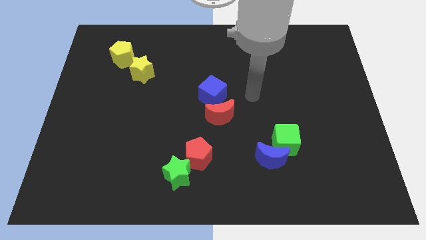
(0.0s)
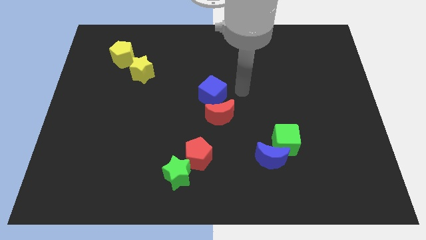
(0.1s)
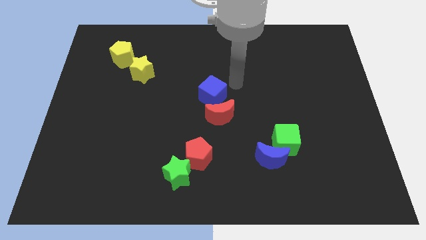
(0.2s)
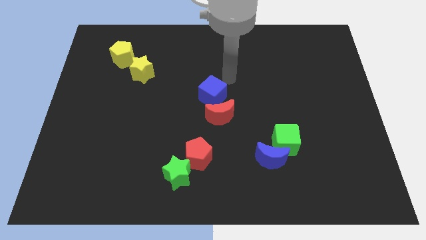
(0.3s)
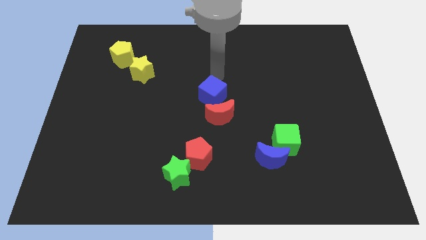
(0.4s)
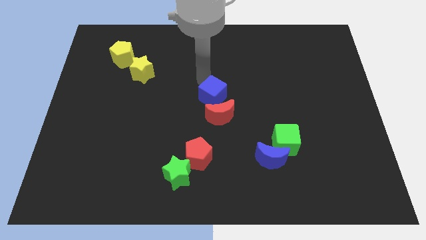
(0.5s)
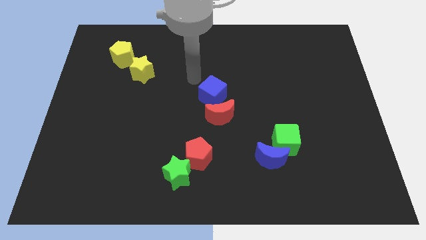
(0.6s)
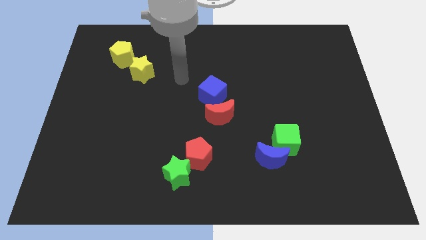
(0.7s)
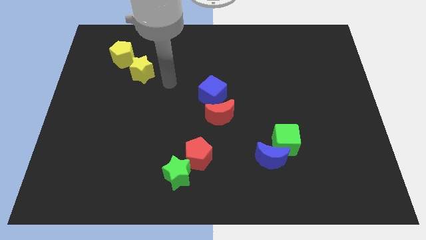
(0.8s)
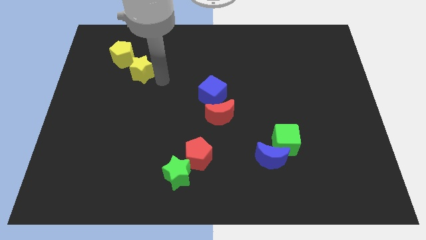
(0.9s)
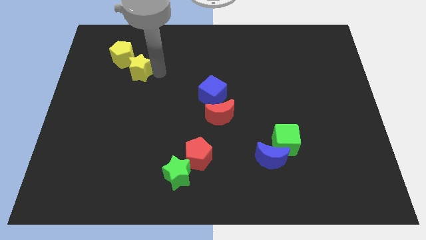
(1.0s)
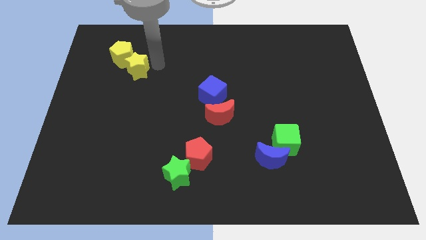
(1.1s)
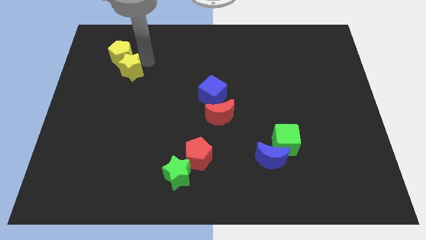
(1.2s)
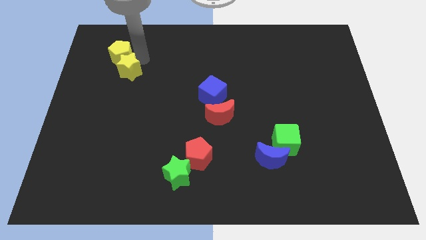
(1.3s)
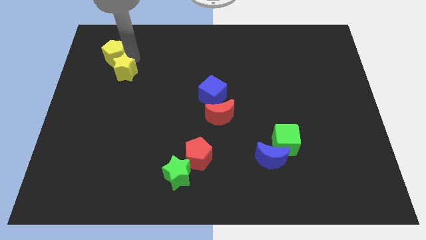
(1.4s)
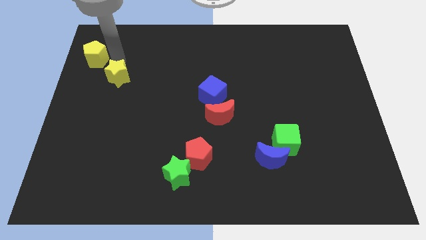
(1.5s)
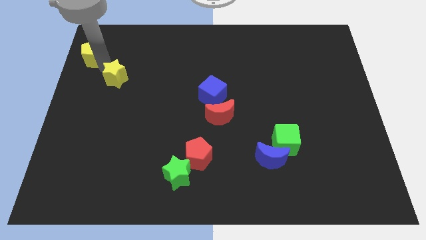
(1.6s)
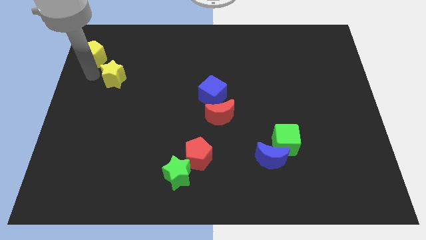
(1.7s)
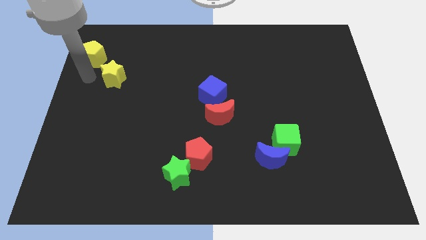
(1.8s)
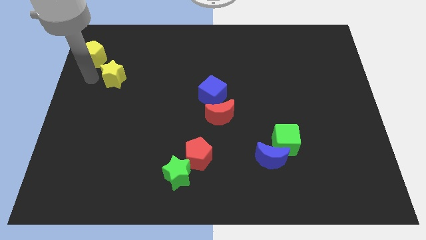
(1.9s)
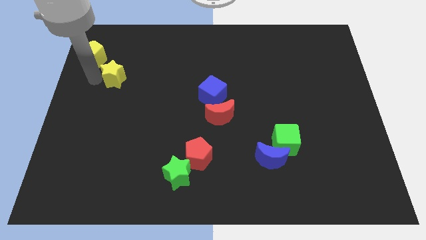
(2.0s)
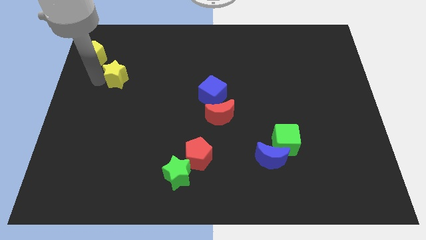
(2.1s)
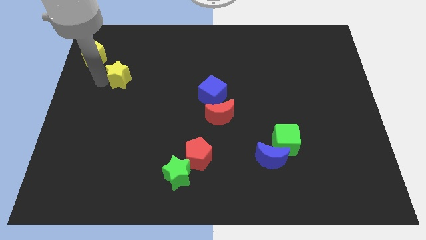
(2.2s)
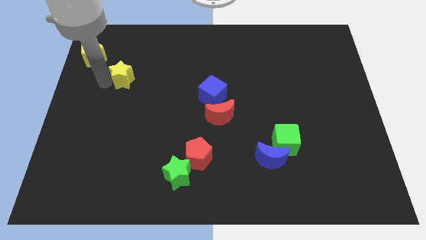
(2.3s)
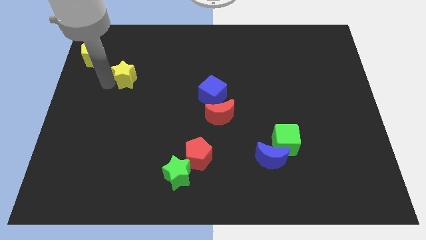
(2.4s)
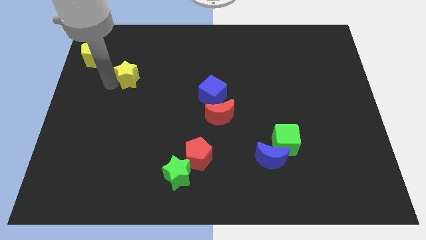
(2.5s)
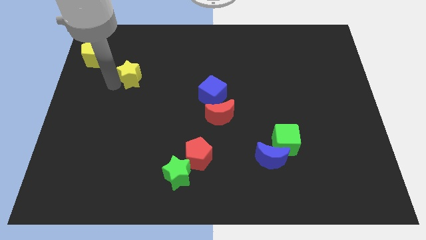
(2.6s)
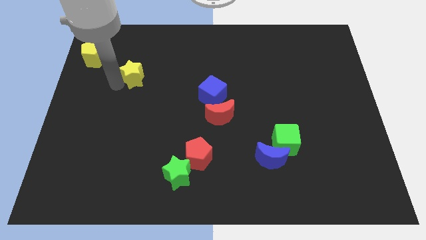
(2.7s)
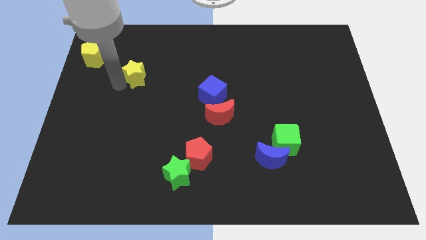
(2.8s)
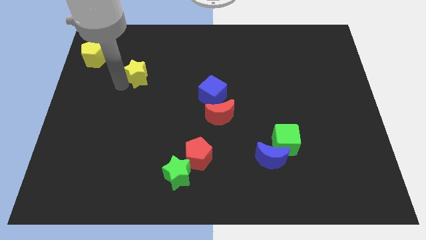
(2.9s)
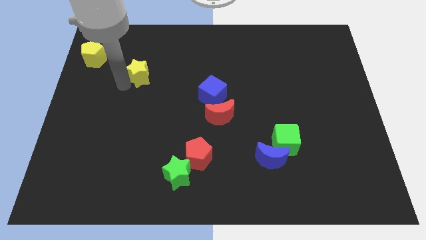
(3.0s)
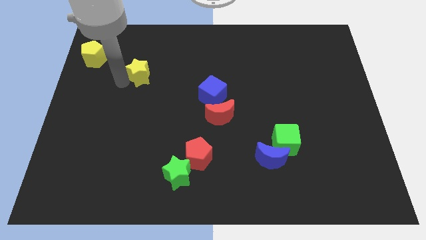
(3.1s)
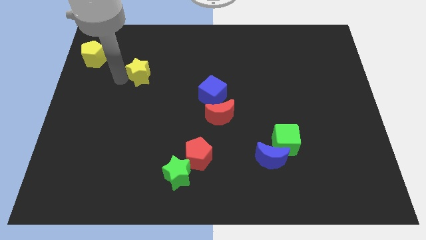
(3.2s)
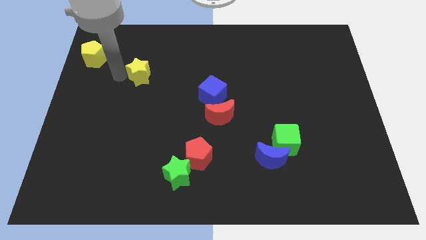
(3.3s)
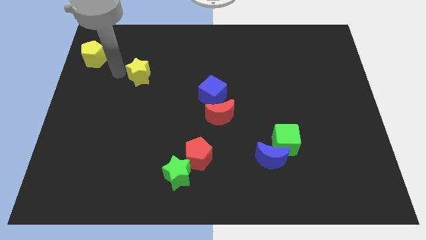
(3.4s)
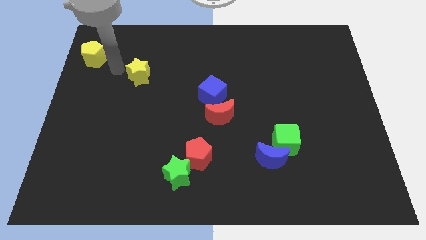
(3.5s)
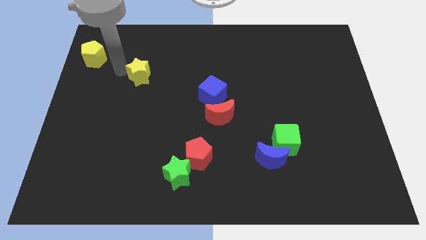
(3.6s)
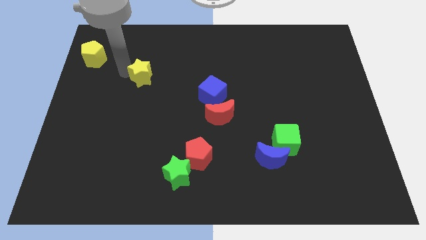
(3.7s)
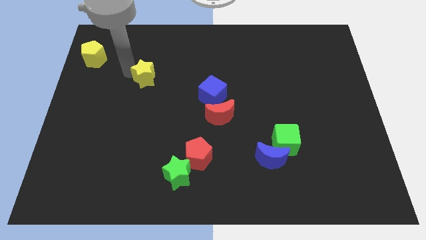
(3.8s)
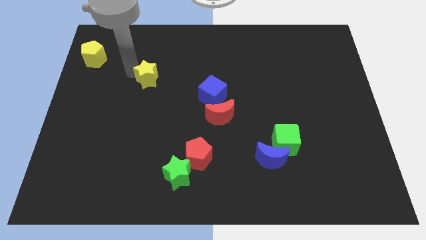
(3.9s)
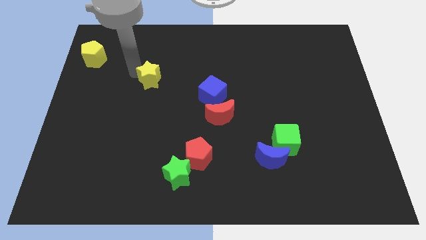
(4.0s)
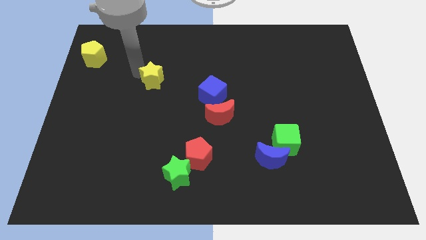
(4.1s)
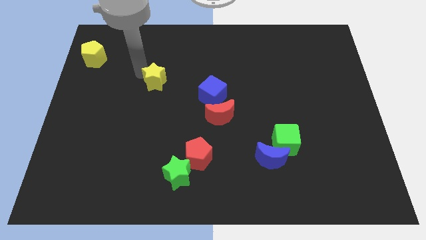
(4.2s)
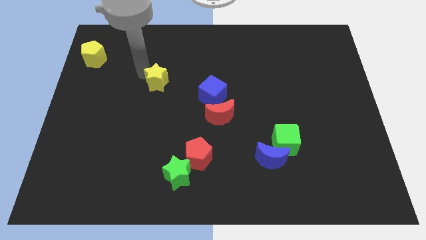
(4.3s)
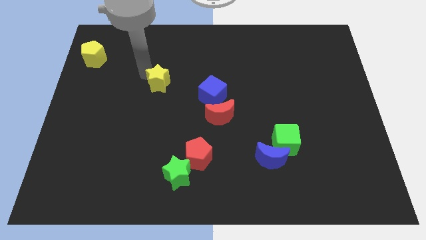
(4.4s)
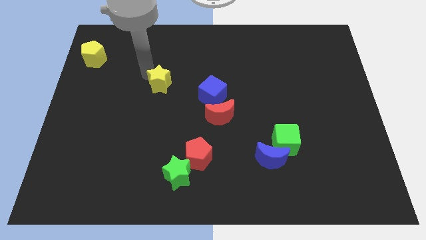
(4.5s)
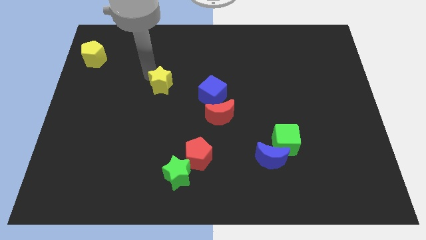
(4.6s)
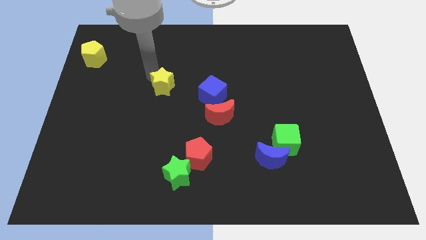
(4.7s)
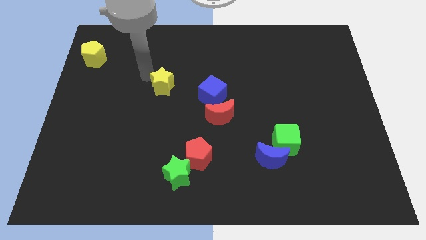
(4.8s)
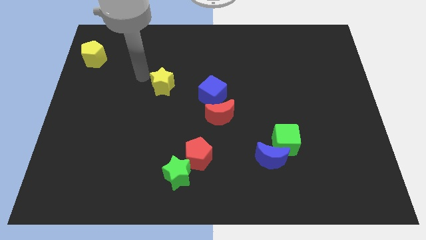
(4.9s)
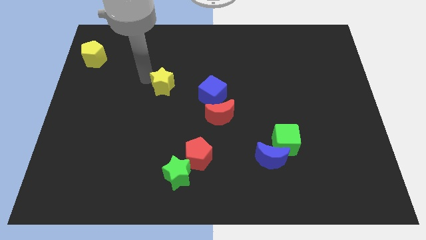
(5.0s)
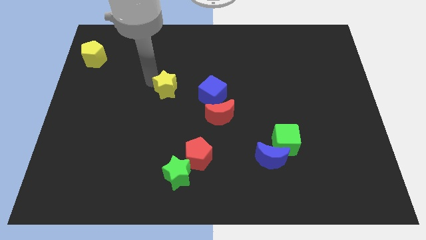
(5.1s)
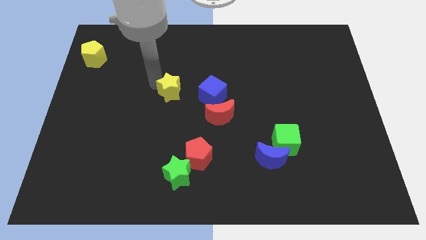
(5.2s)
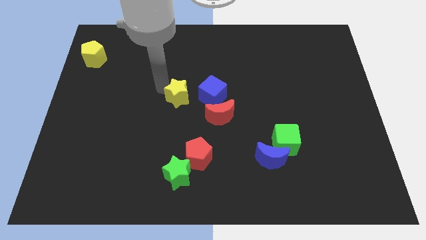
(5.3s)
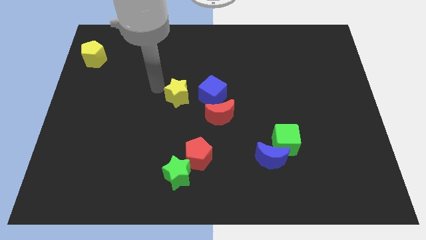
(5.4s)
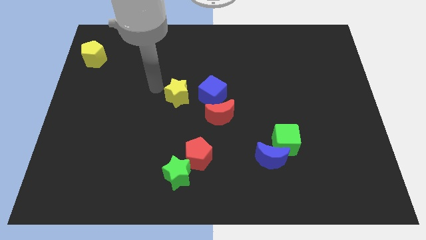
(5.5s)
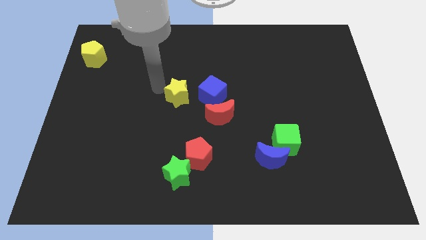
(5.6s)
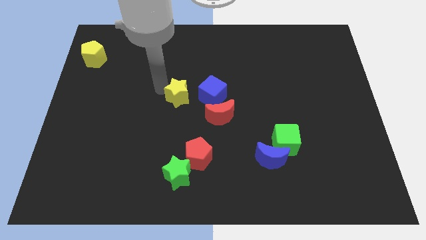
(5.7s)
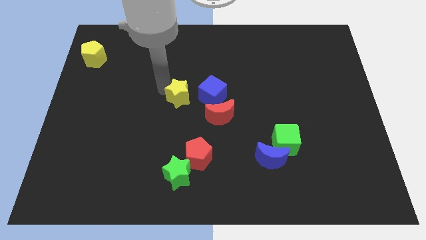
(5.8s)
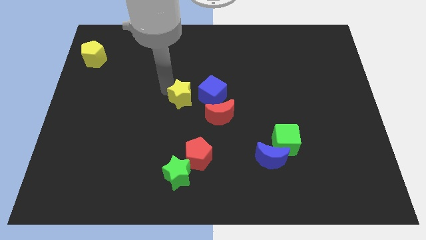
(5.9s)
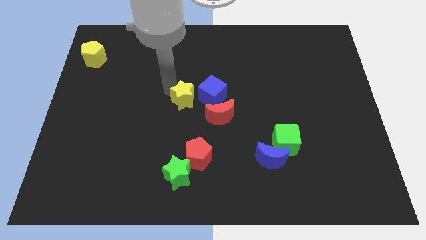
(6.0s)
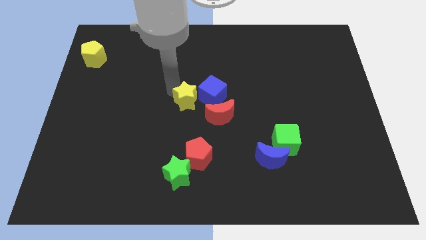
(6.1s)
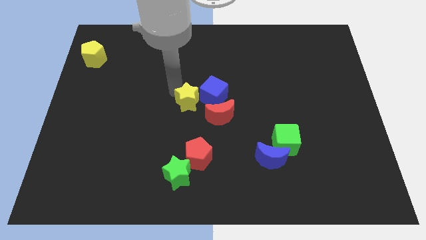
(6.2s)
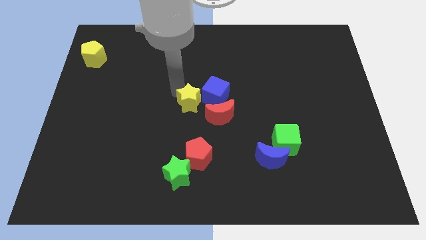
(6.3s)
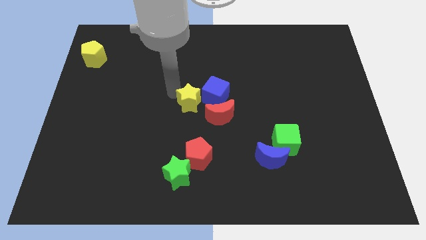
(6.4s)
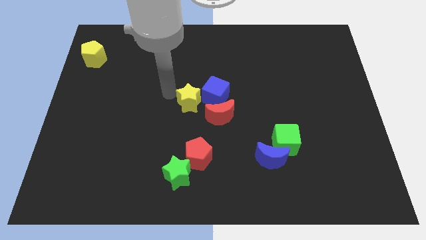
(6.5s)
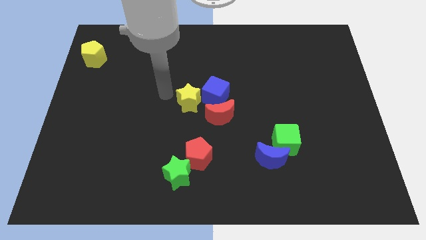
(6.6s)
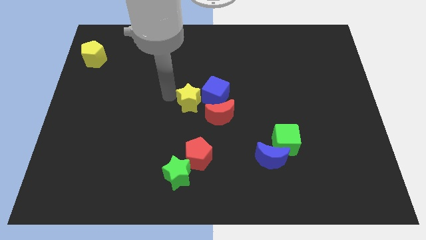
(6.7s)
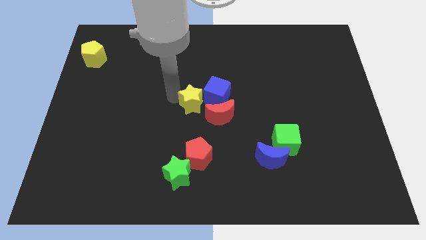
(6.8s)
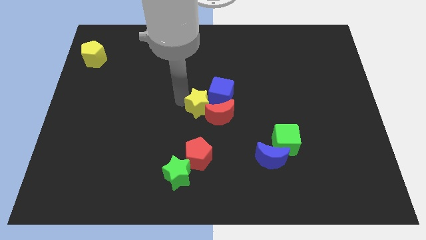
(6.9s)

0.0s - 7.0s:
slide the yellow star to the red moon
